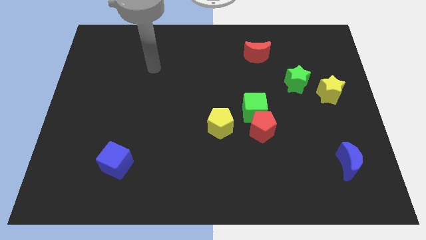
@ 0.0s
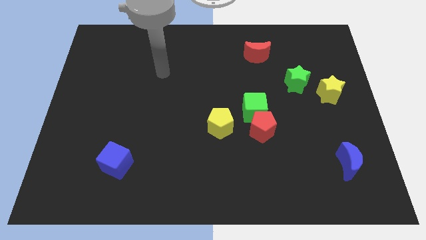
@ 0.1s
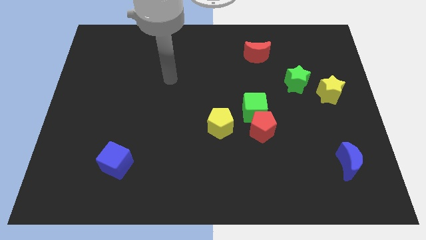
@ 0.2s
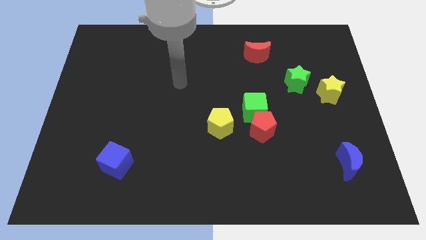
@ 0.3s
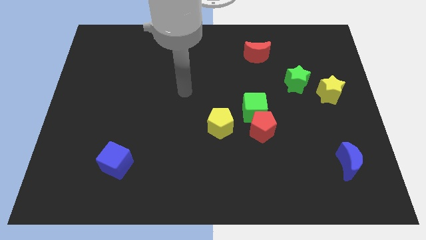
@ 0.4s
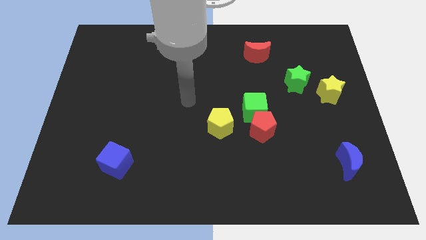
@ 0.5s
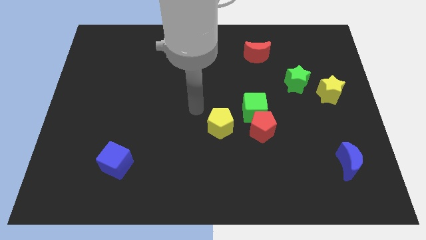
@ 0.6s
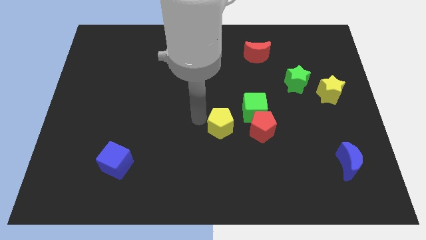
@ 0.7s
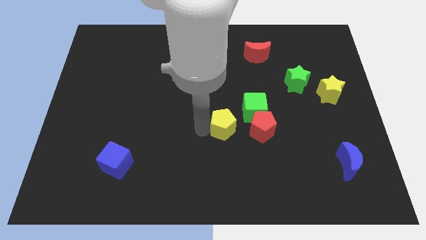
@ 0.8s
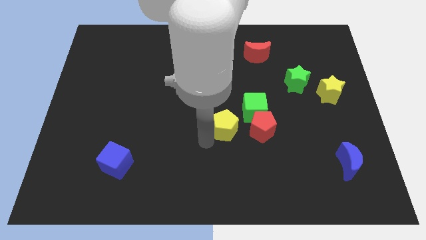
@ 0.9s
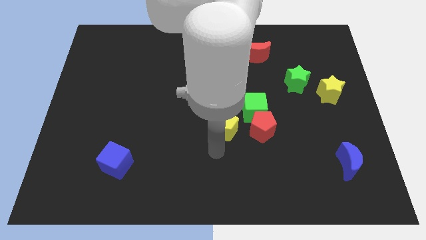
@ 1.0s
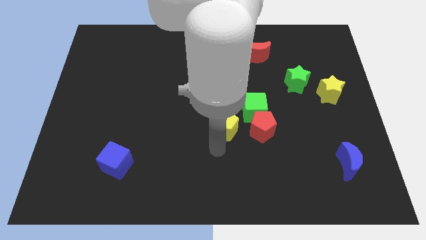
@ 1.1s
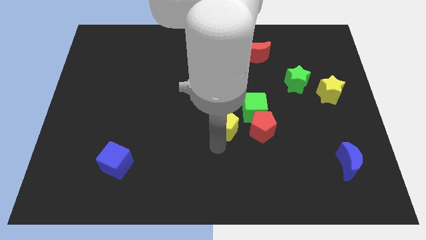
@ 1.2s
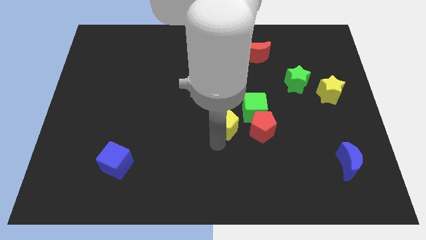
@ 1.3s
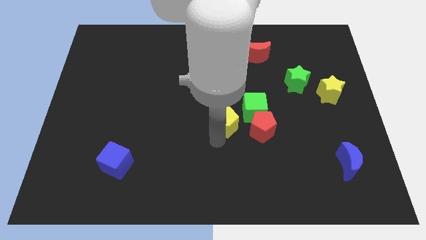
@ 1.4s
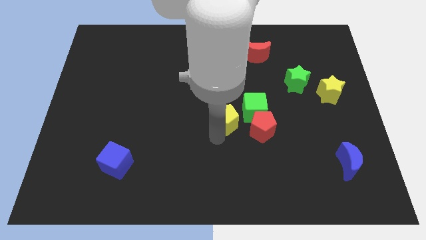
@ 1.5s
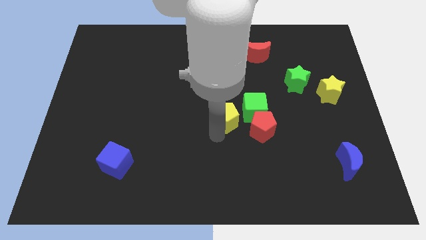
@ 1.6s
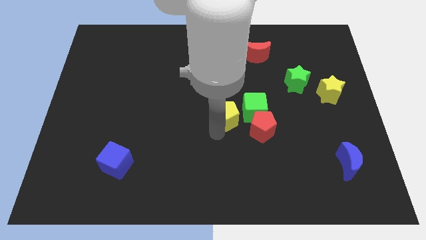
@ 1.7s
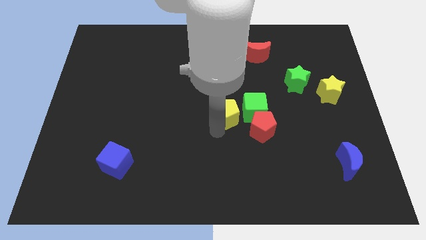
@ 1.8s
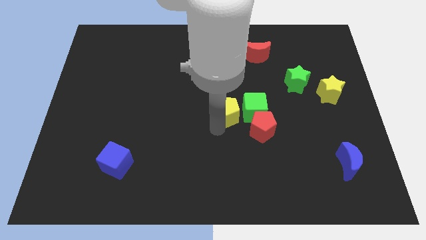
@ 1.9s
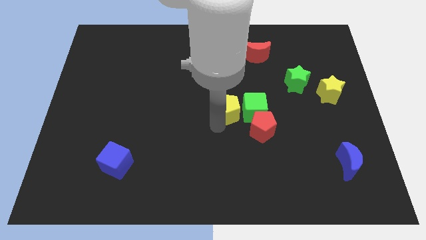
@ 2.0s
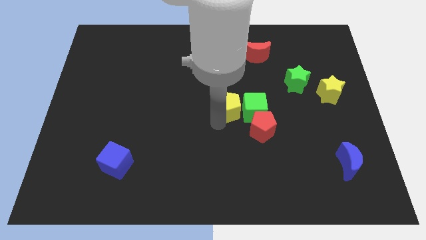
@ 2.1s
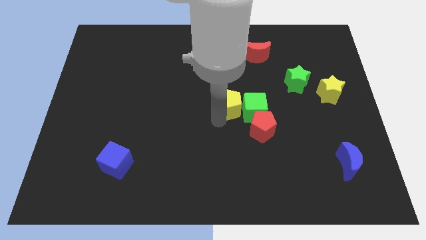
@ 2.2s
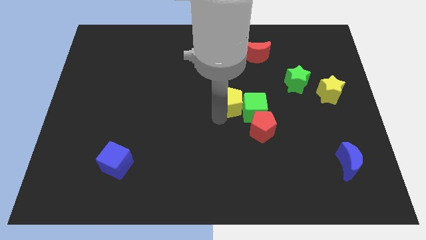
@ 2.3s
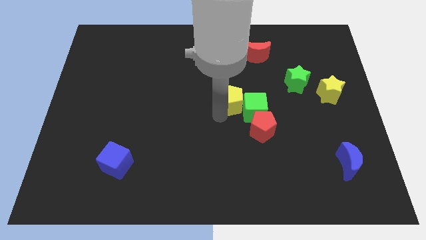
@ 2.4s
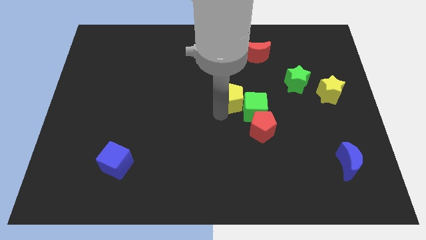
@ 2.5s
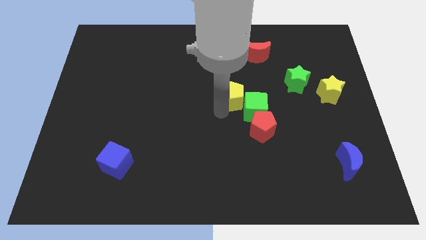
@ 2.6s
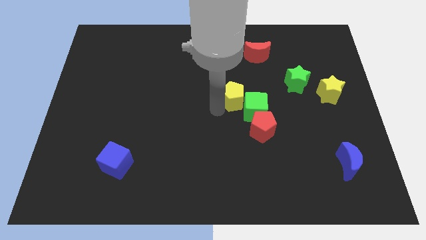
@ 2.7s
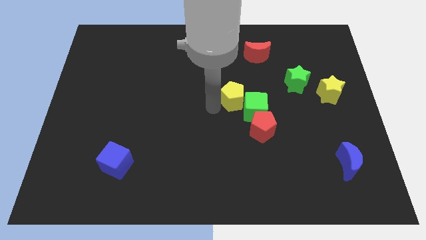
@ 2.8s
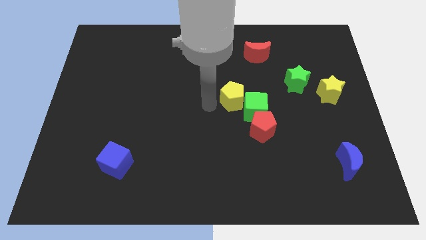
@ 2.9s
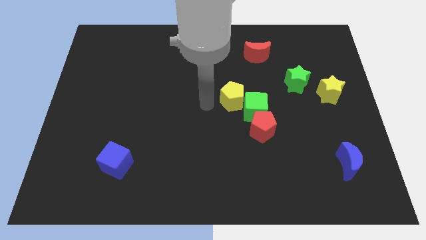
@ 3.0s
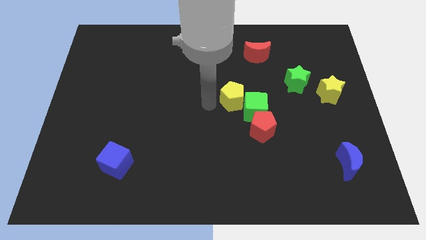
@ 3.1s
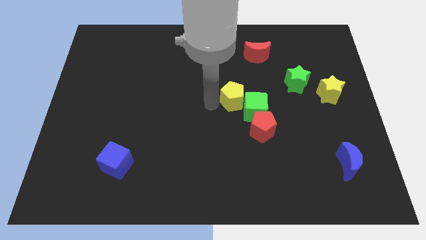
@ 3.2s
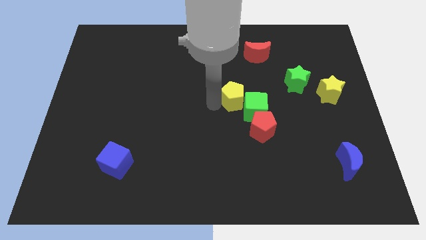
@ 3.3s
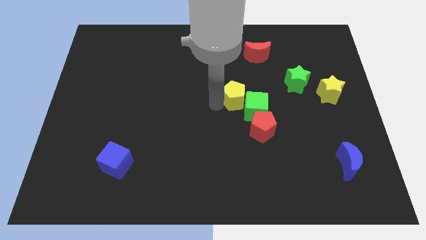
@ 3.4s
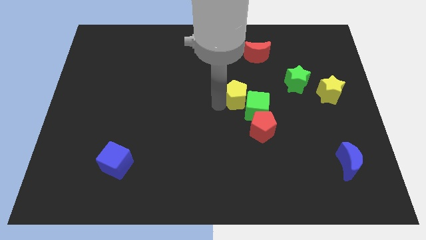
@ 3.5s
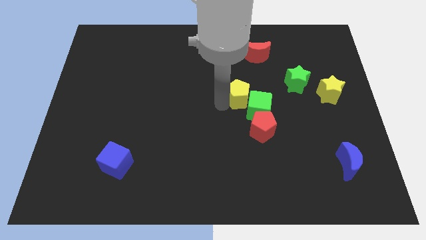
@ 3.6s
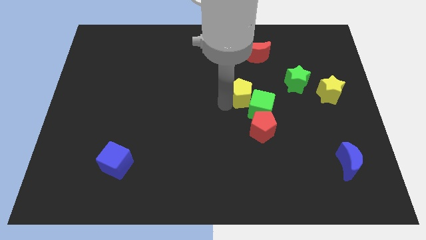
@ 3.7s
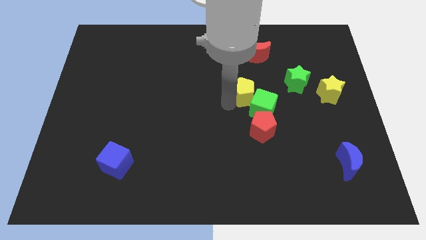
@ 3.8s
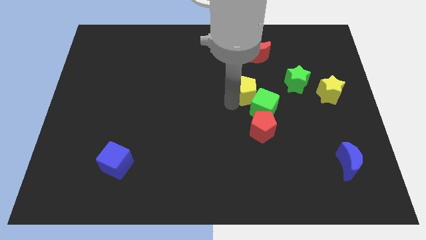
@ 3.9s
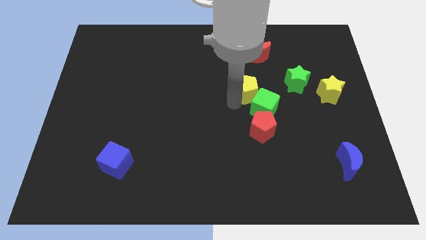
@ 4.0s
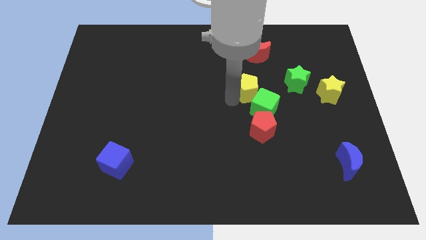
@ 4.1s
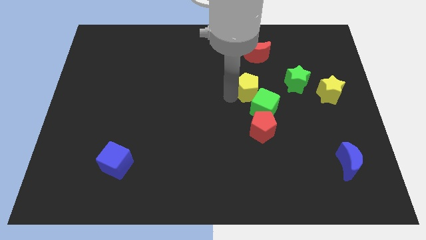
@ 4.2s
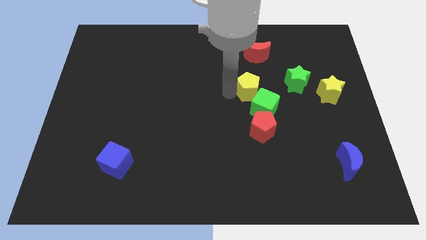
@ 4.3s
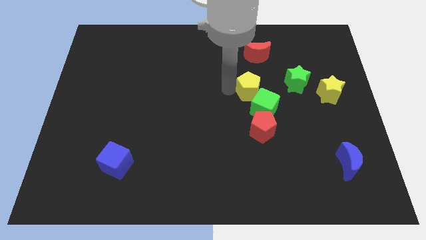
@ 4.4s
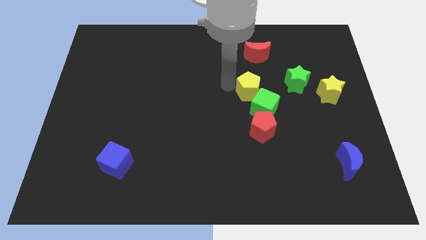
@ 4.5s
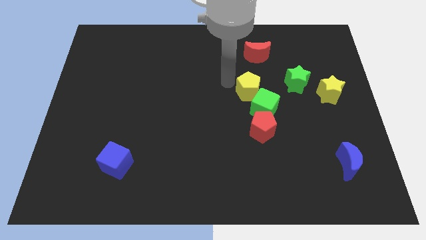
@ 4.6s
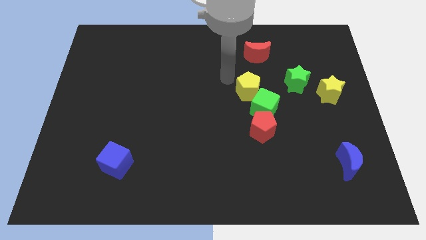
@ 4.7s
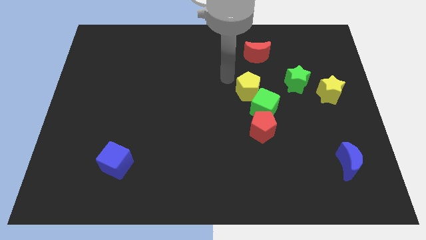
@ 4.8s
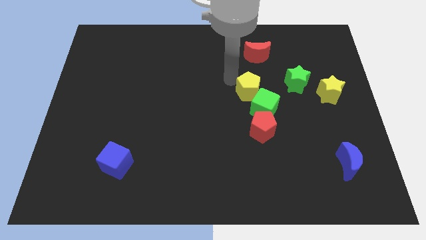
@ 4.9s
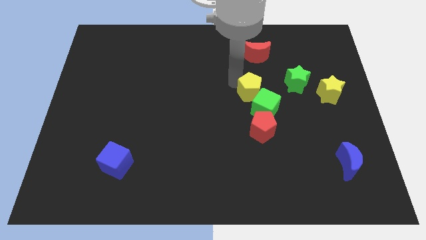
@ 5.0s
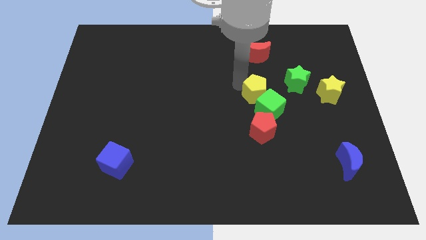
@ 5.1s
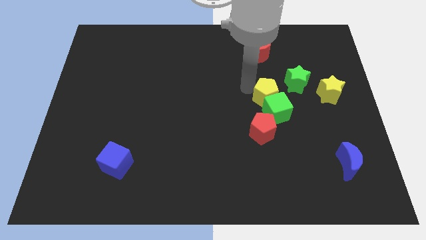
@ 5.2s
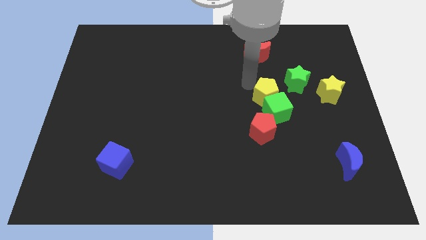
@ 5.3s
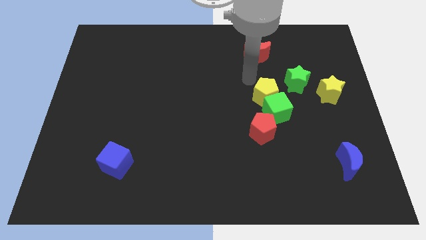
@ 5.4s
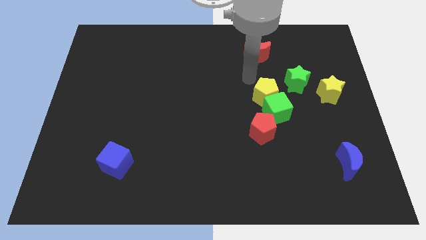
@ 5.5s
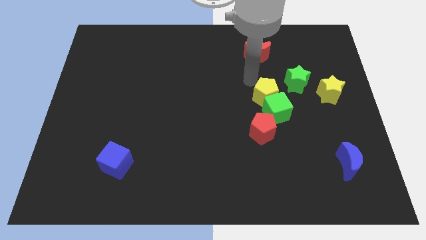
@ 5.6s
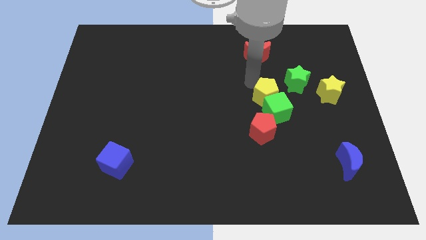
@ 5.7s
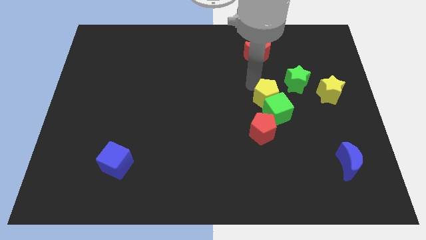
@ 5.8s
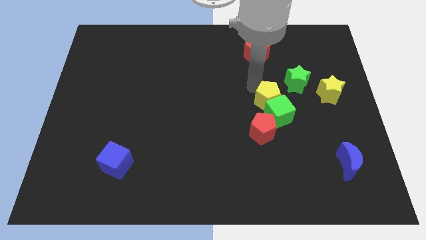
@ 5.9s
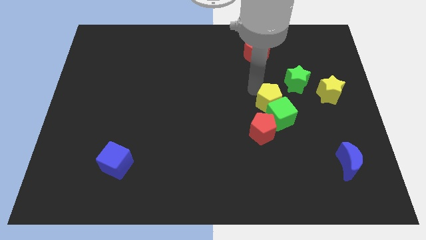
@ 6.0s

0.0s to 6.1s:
slide the yellow pentagon to the top right of the red pentagon
